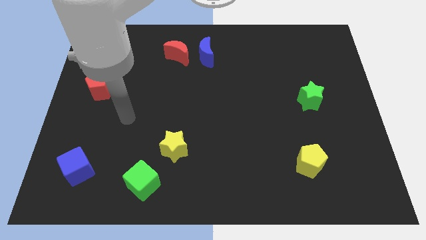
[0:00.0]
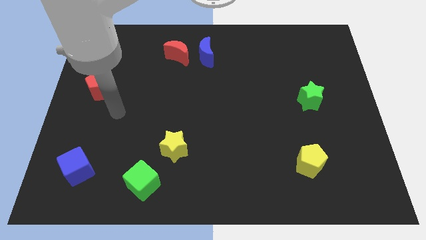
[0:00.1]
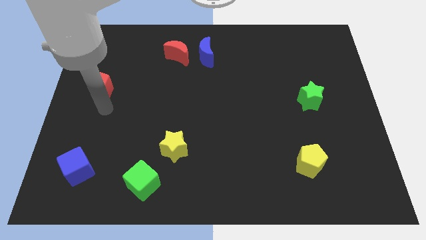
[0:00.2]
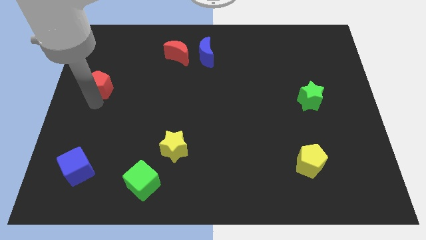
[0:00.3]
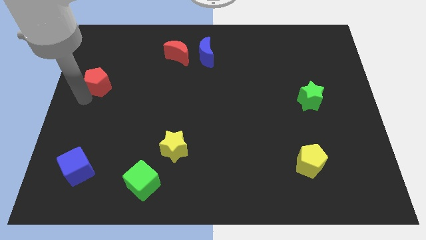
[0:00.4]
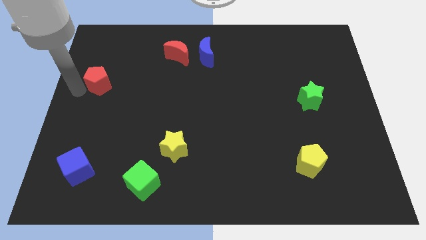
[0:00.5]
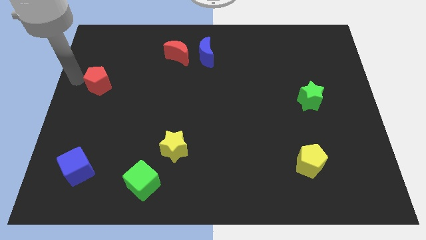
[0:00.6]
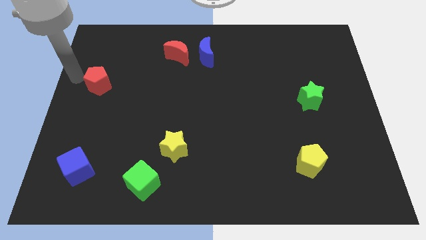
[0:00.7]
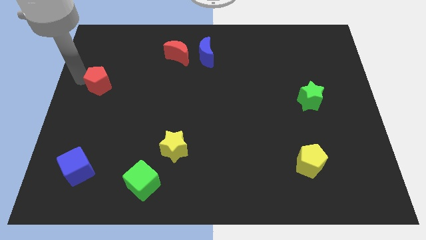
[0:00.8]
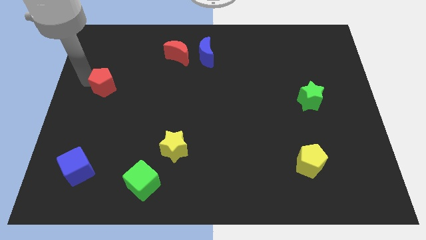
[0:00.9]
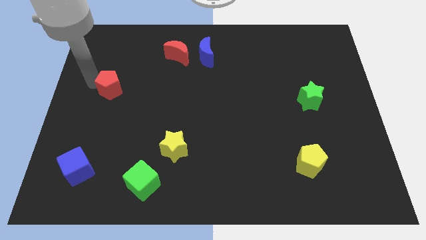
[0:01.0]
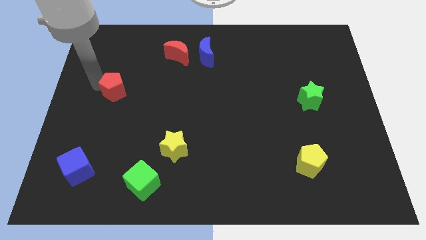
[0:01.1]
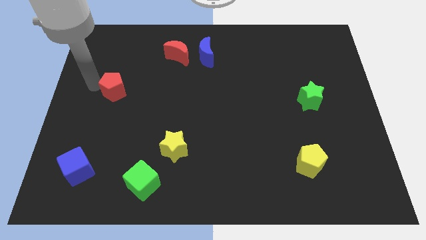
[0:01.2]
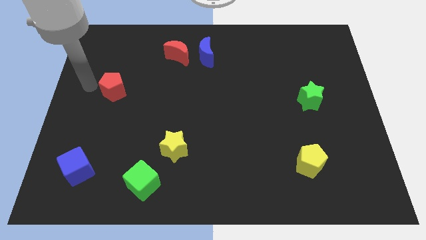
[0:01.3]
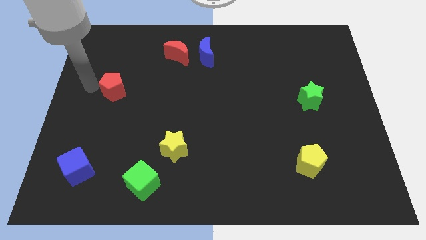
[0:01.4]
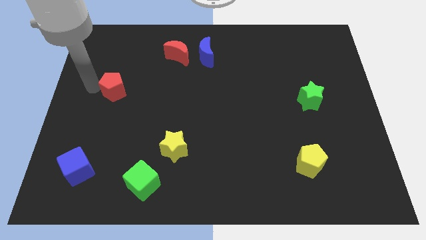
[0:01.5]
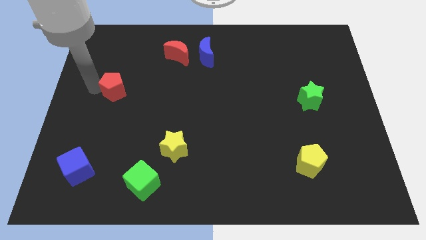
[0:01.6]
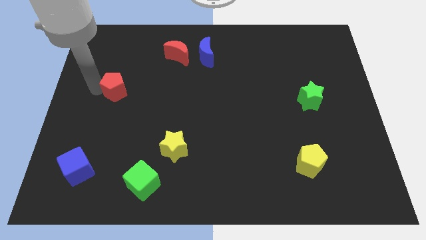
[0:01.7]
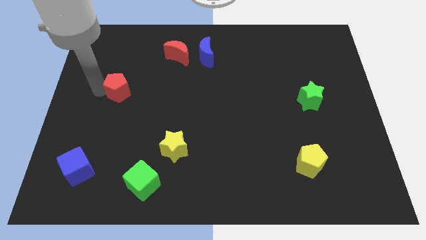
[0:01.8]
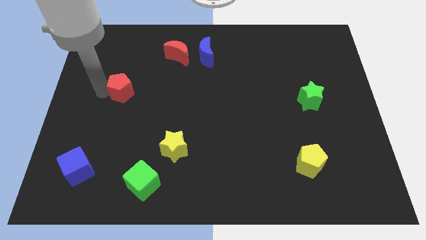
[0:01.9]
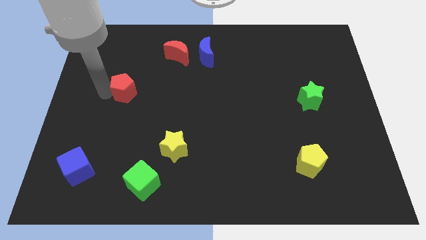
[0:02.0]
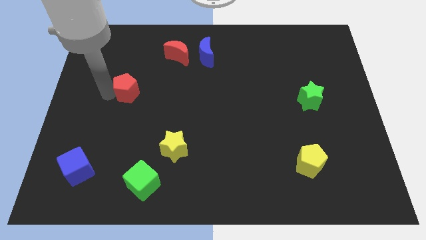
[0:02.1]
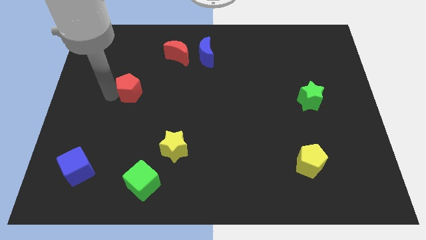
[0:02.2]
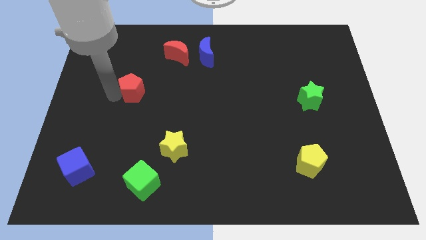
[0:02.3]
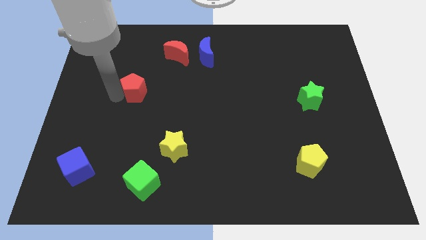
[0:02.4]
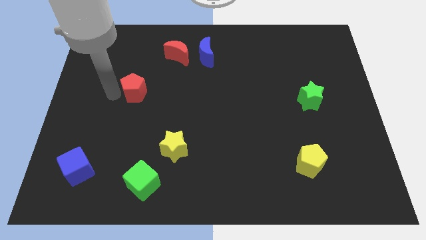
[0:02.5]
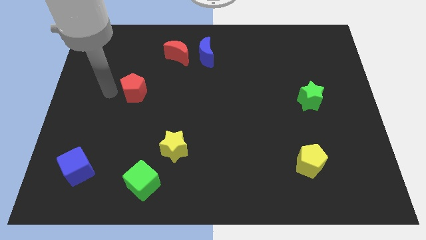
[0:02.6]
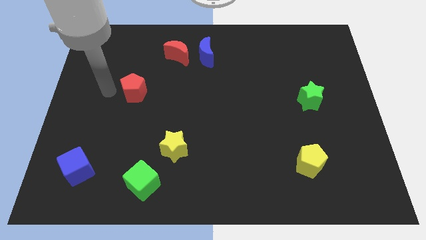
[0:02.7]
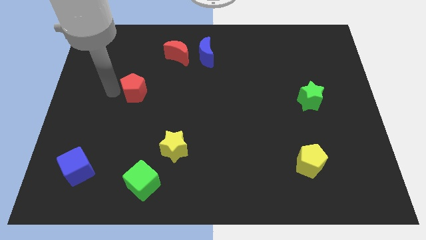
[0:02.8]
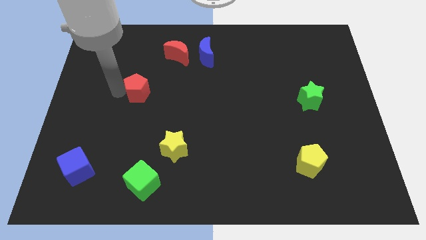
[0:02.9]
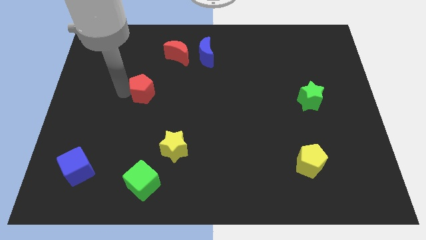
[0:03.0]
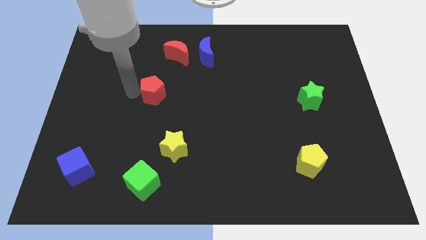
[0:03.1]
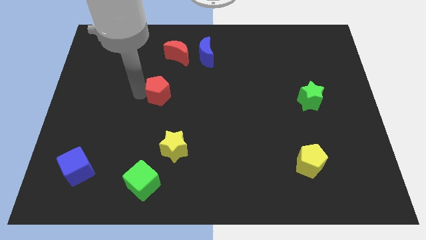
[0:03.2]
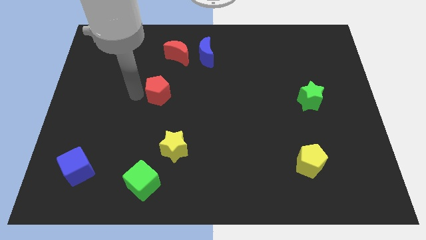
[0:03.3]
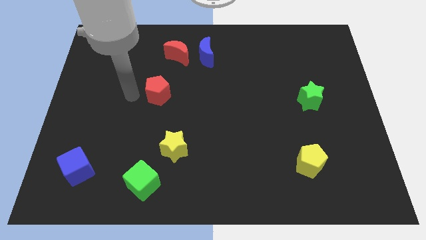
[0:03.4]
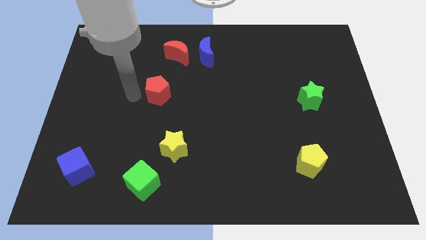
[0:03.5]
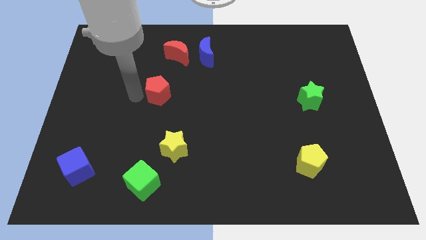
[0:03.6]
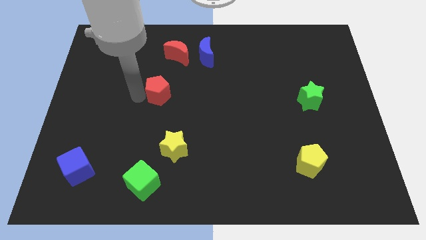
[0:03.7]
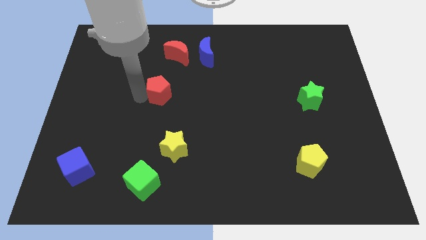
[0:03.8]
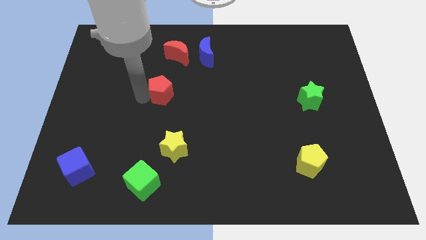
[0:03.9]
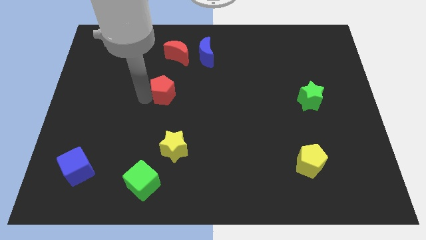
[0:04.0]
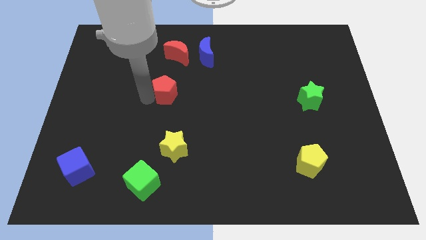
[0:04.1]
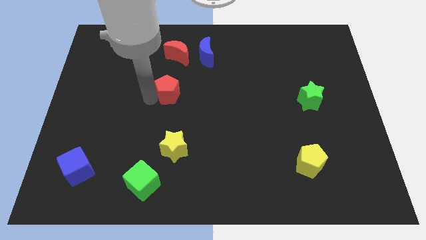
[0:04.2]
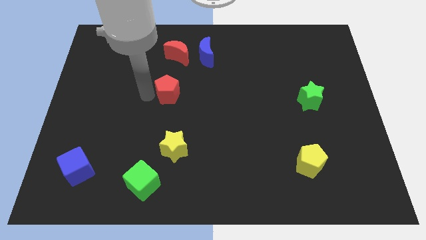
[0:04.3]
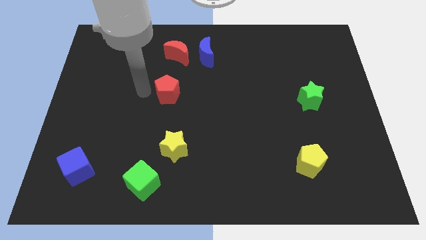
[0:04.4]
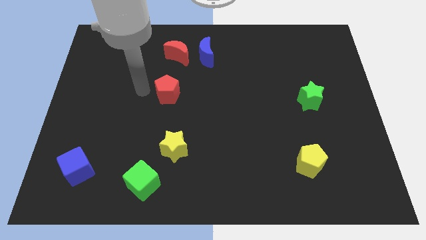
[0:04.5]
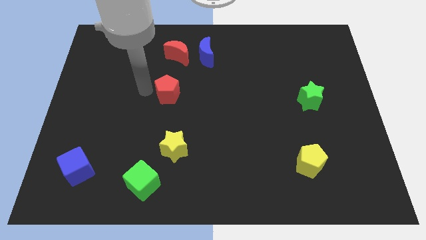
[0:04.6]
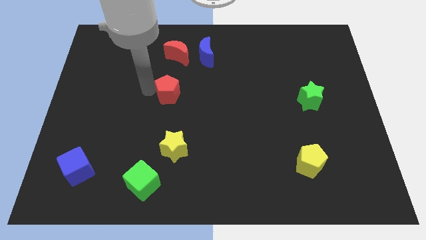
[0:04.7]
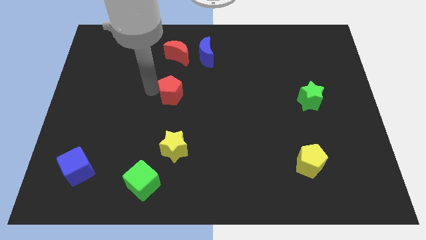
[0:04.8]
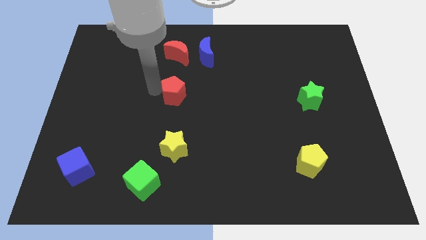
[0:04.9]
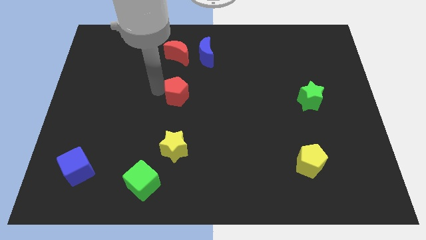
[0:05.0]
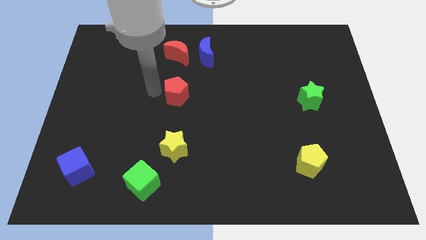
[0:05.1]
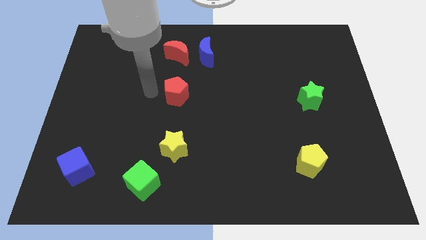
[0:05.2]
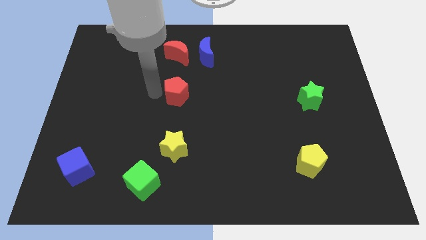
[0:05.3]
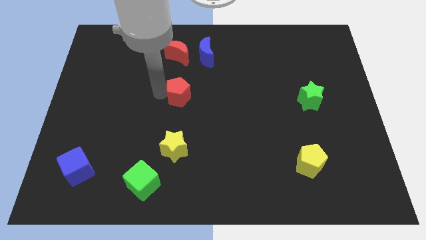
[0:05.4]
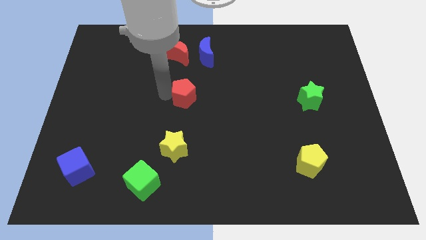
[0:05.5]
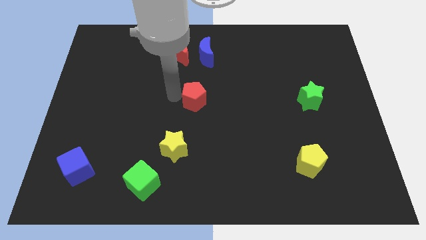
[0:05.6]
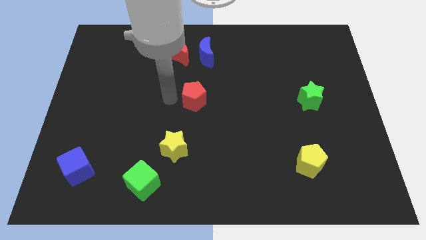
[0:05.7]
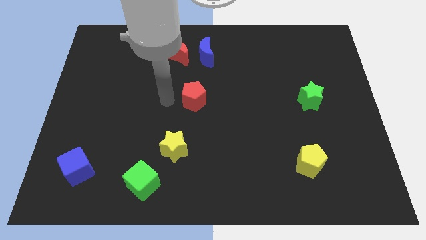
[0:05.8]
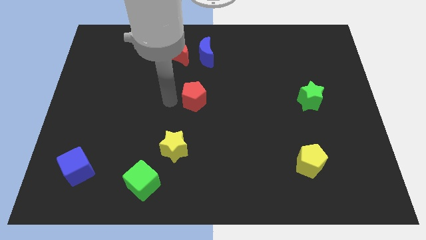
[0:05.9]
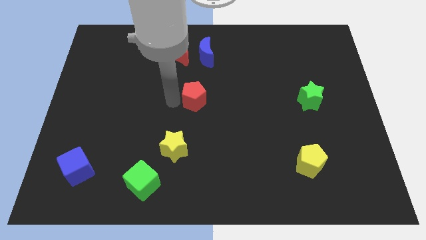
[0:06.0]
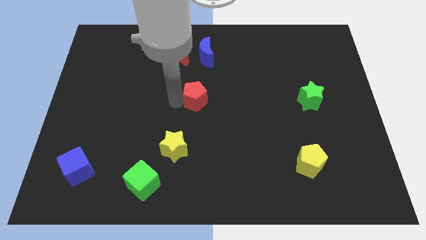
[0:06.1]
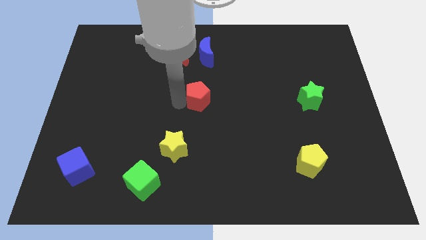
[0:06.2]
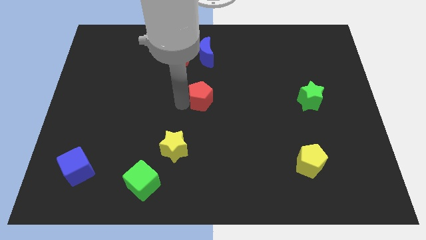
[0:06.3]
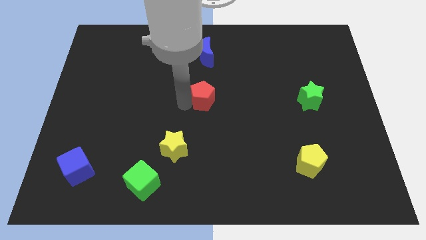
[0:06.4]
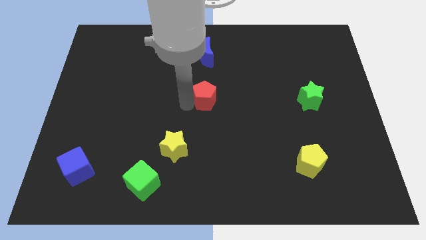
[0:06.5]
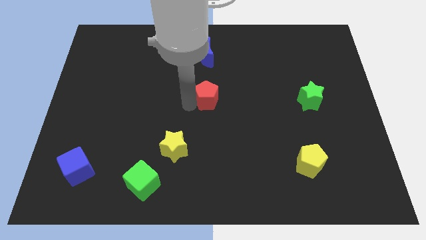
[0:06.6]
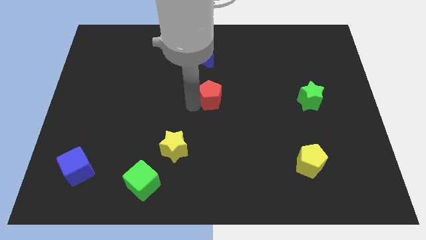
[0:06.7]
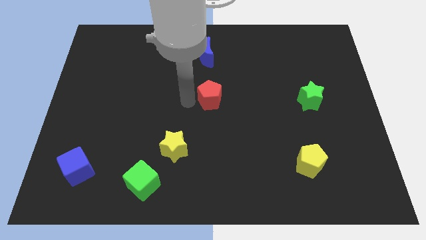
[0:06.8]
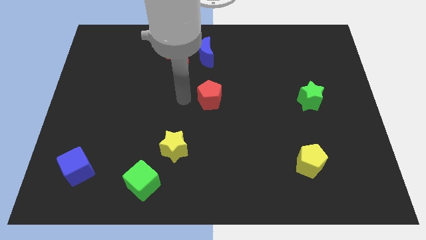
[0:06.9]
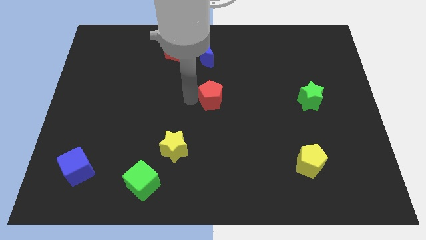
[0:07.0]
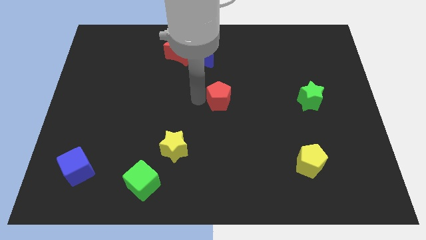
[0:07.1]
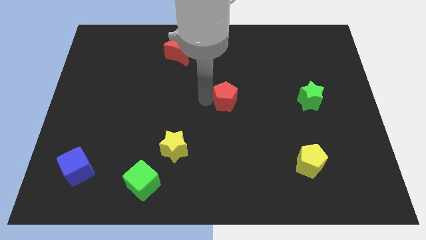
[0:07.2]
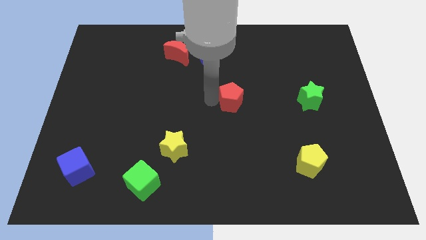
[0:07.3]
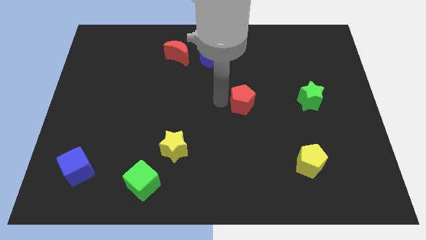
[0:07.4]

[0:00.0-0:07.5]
put the red pentagon just left of the green star
